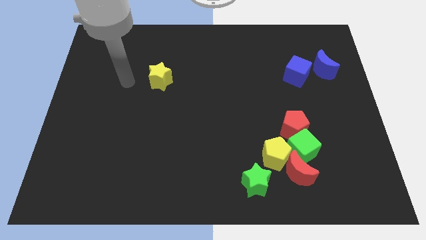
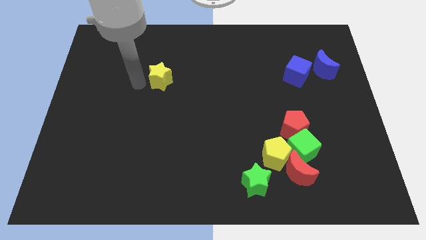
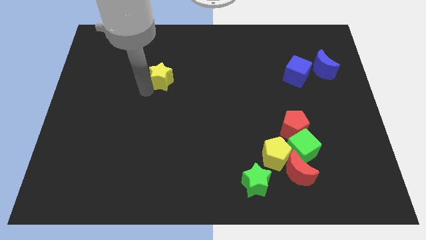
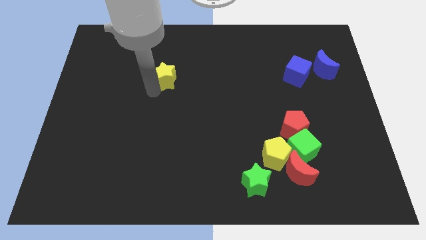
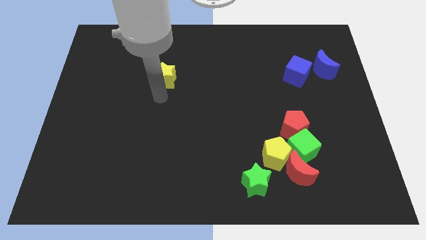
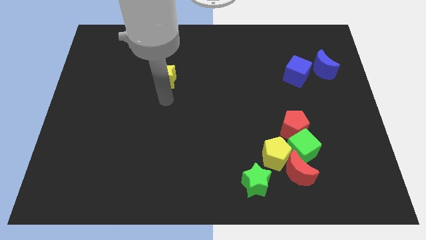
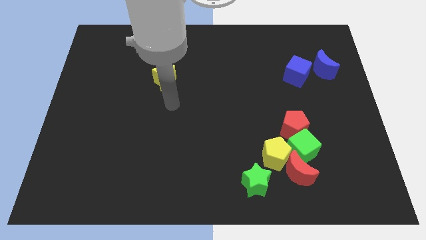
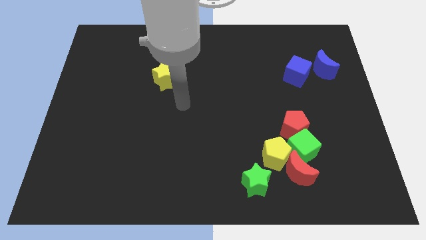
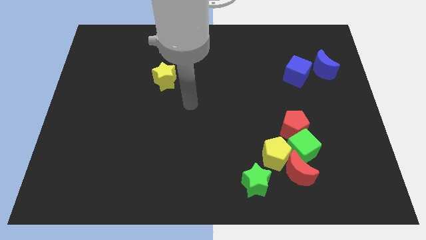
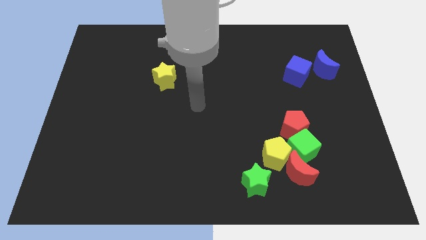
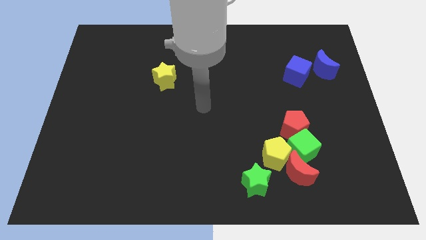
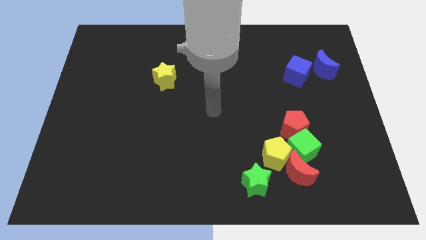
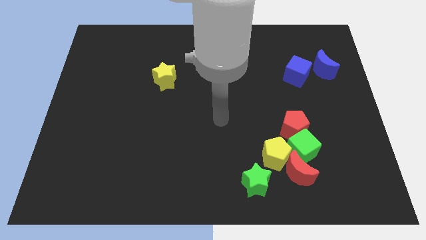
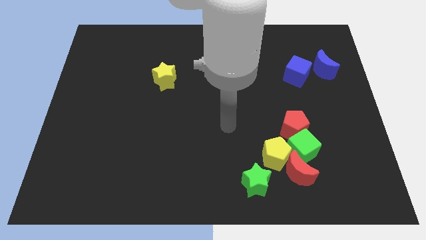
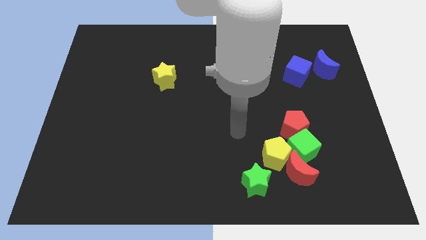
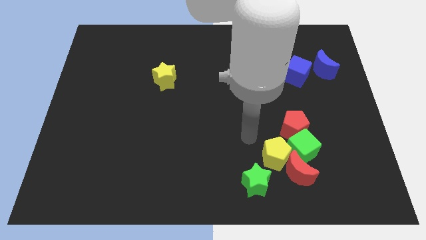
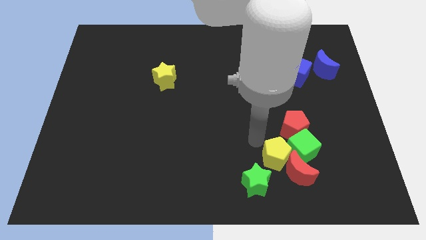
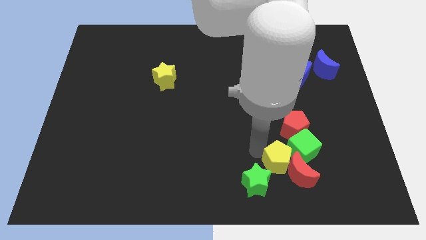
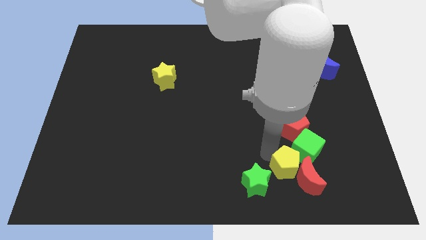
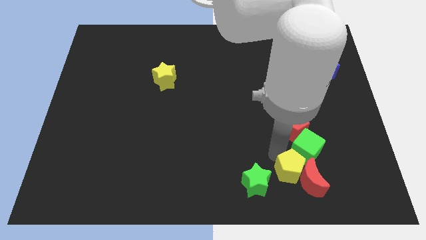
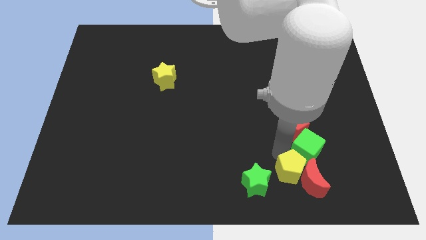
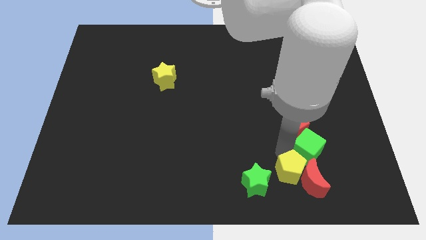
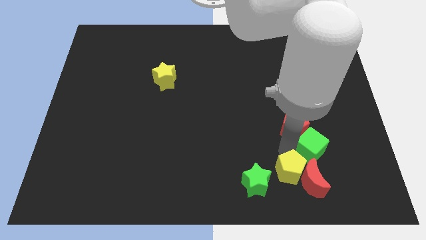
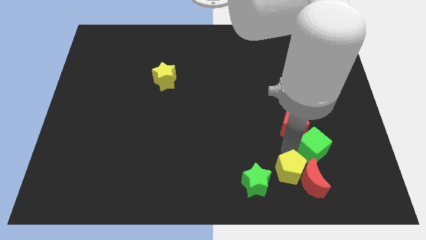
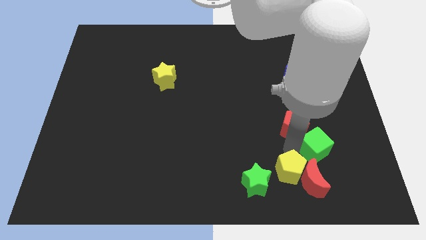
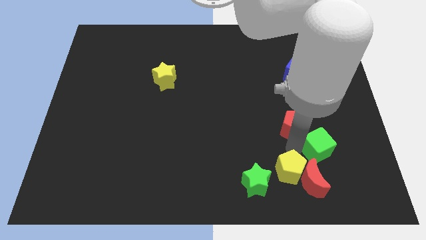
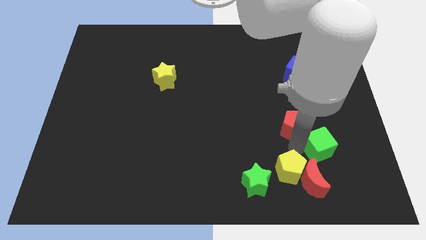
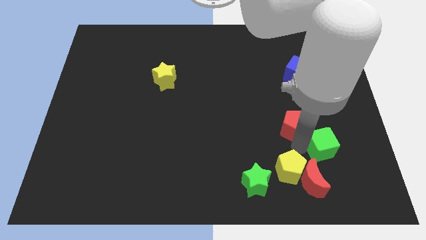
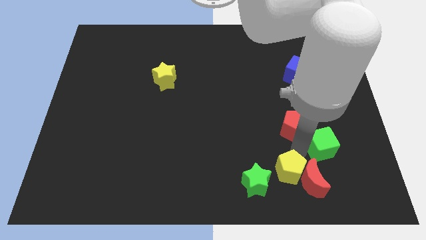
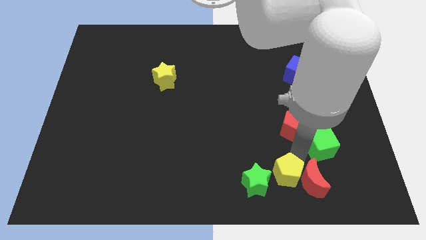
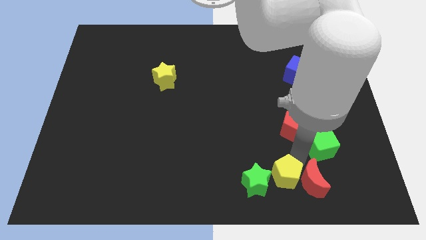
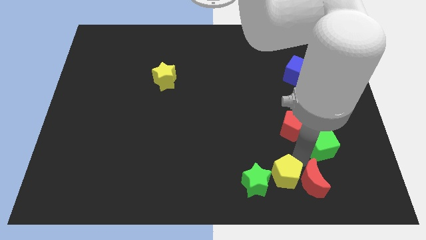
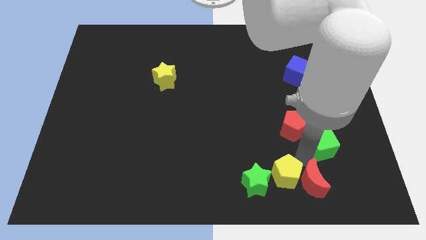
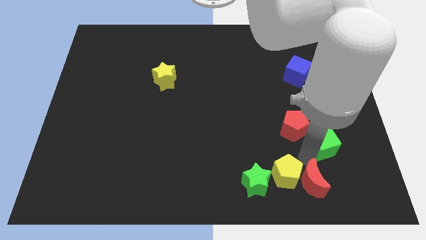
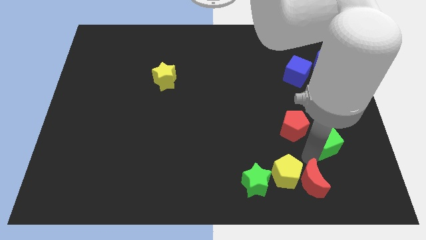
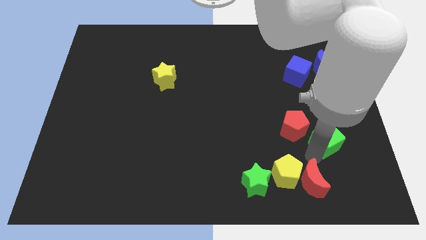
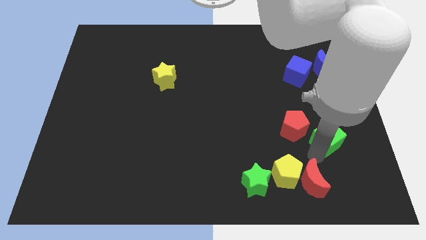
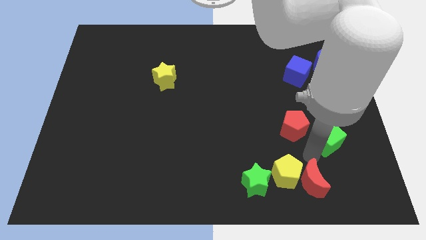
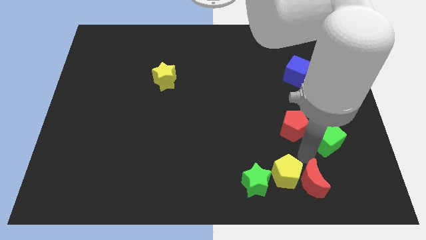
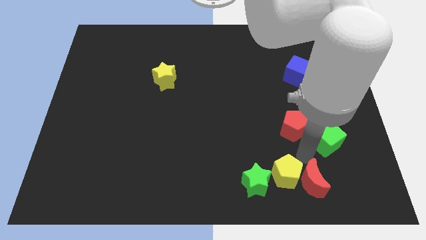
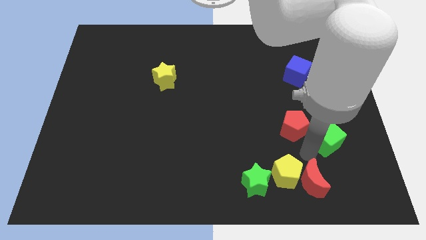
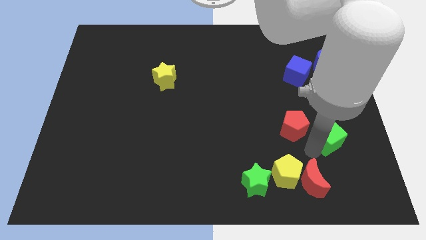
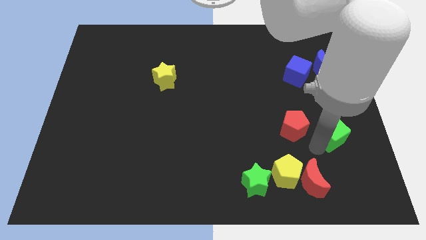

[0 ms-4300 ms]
move the green cube away from the group of blocks

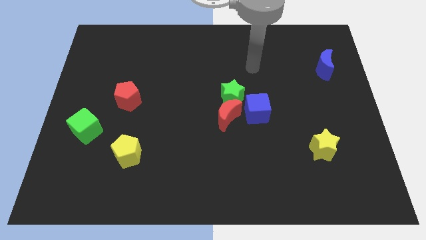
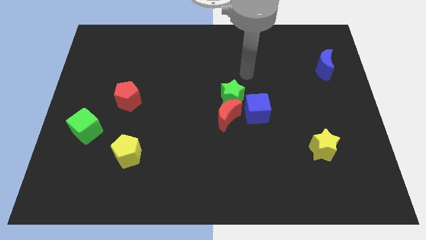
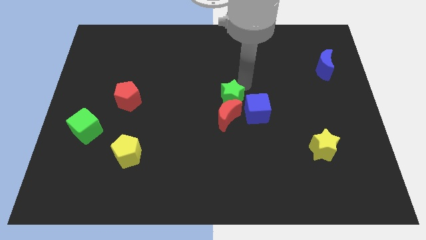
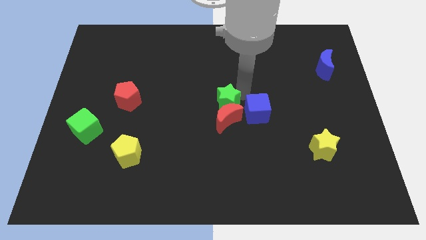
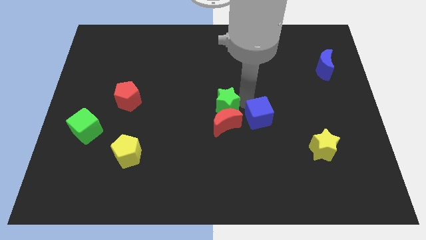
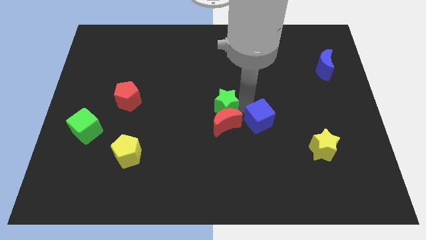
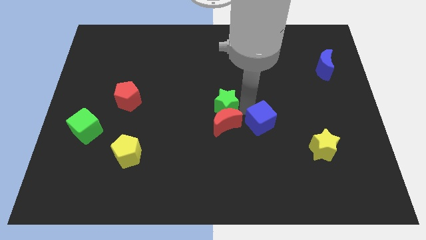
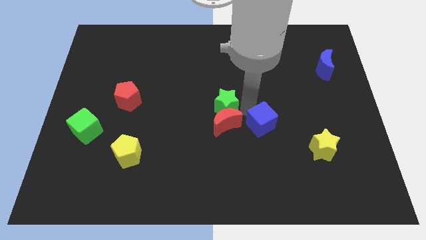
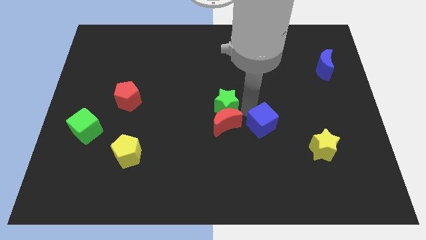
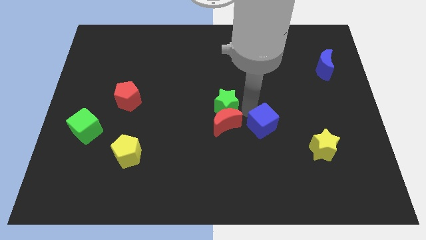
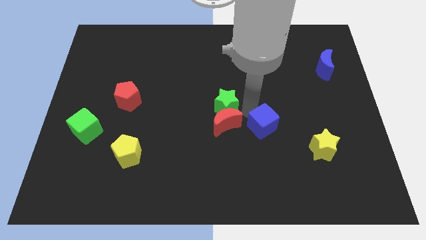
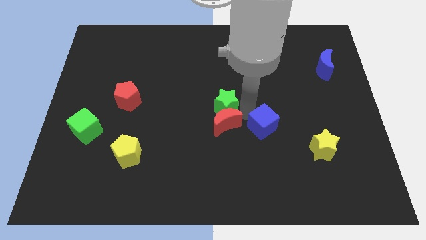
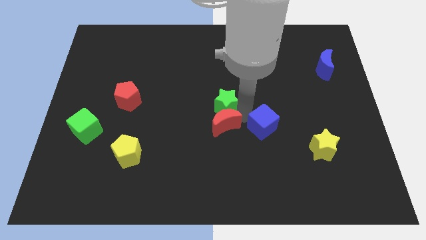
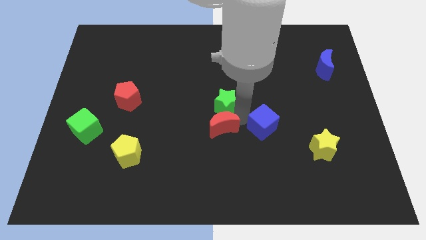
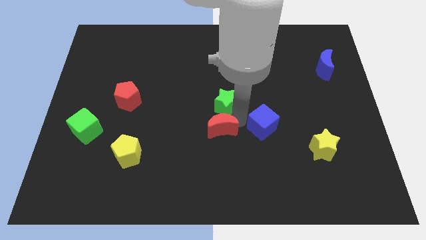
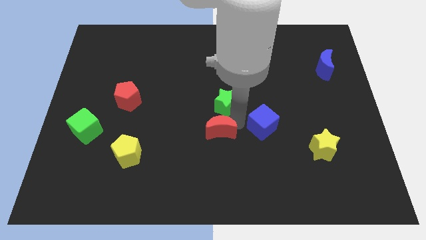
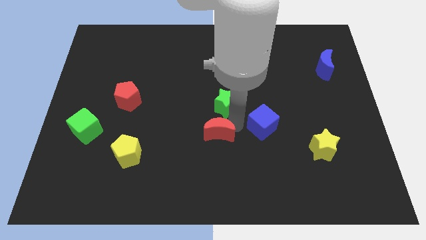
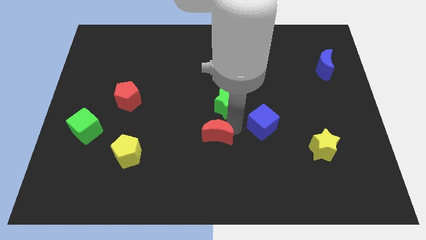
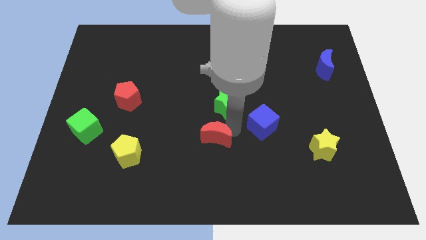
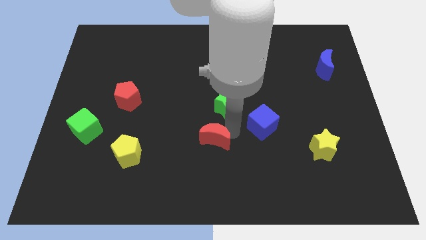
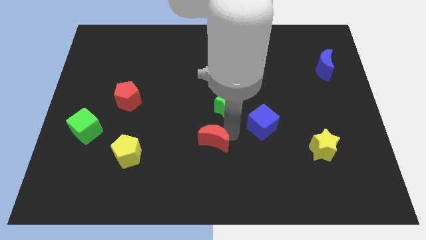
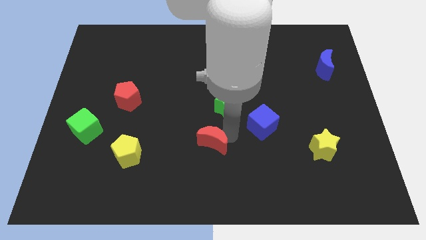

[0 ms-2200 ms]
pull the red moon apart from the green star and blue cube

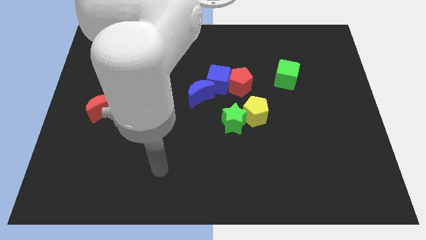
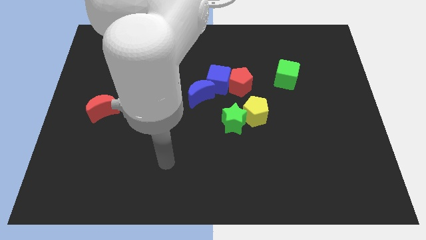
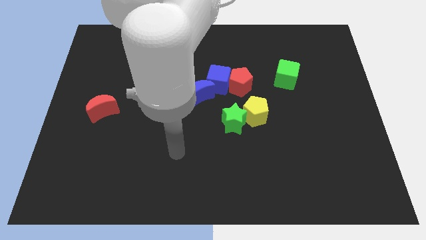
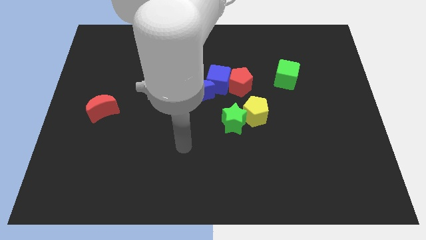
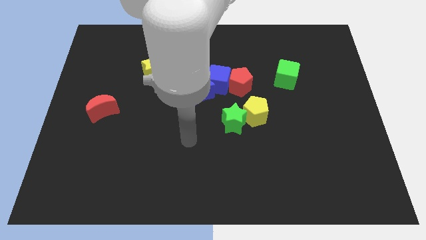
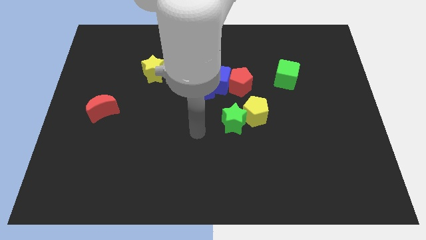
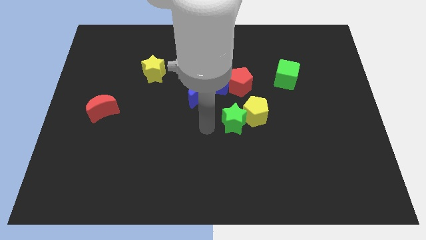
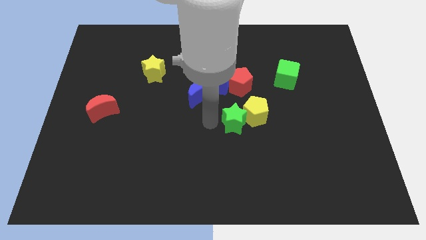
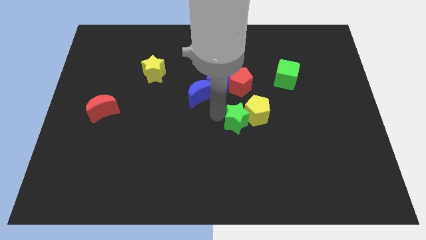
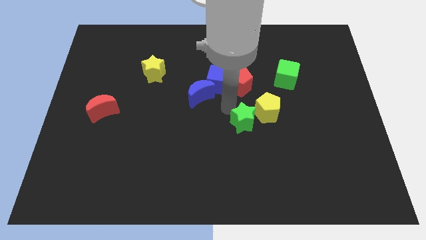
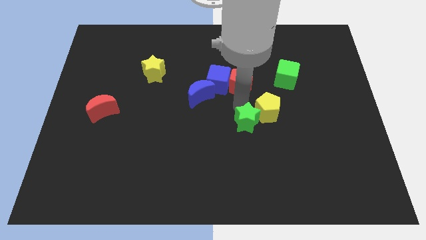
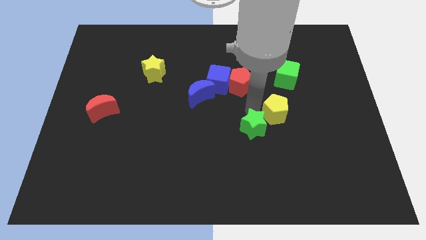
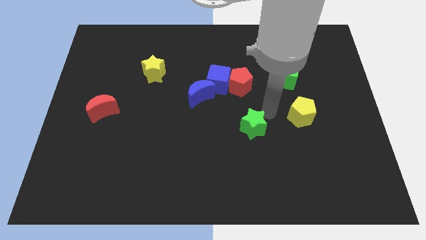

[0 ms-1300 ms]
separate the green star from the yellow pentagon

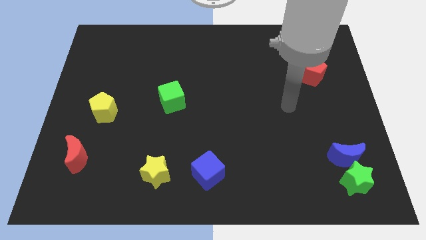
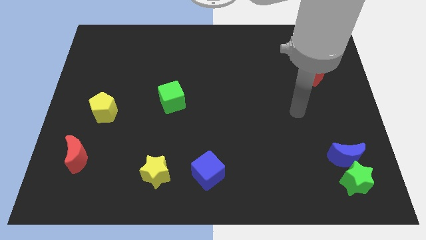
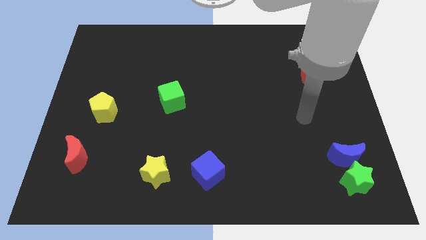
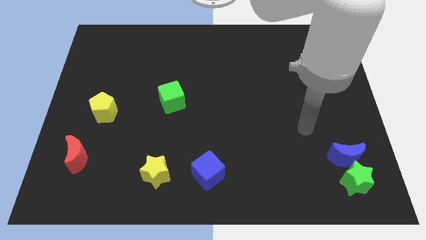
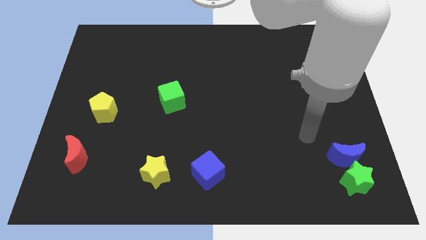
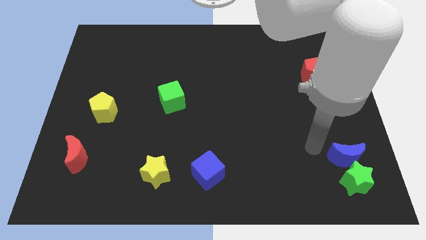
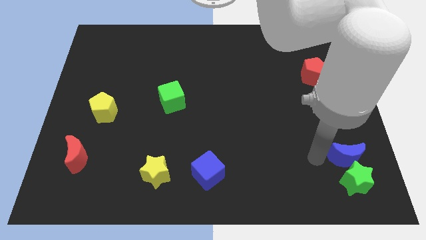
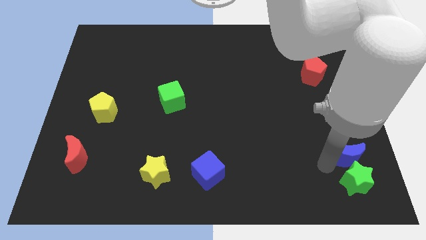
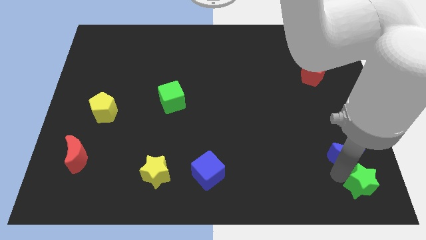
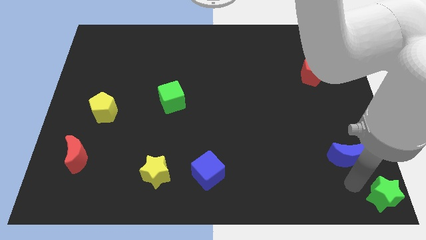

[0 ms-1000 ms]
separate the blue moon from the green star

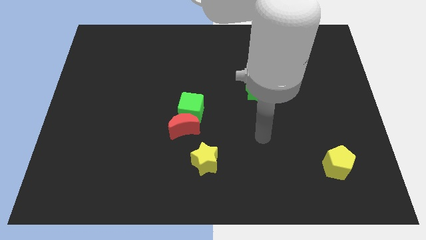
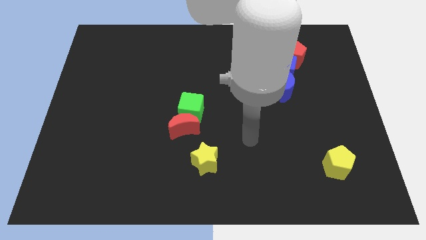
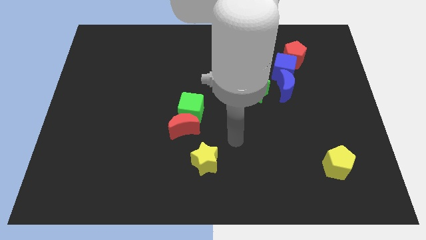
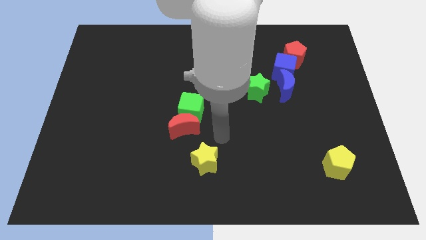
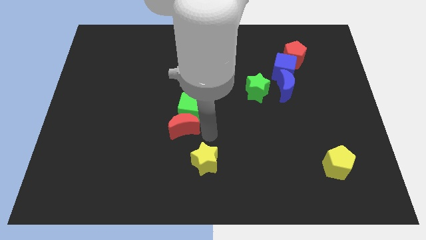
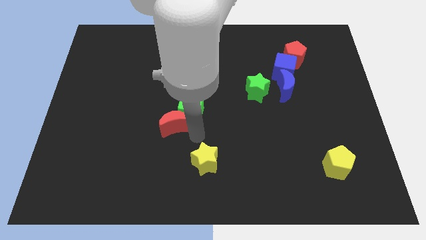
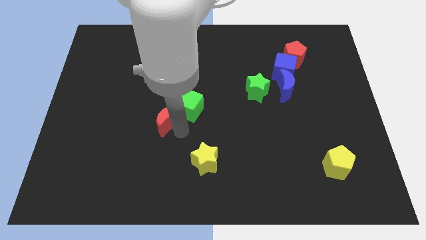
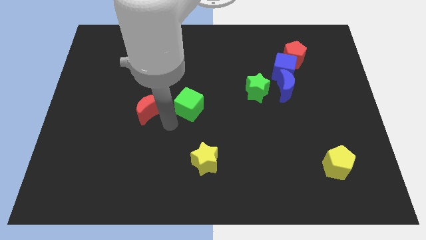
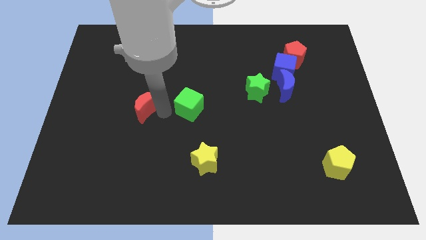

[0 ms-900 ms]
separate the green cube from the red moon
